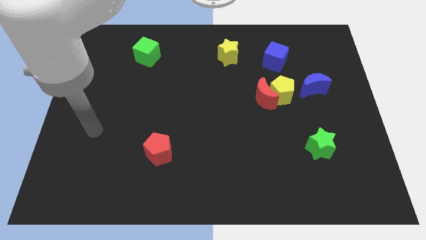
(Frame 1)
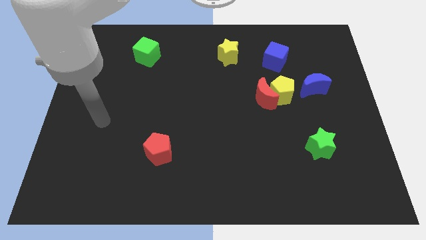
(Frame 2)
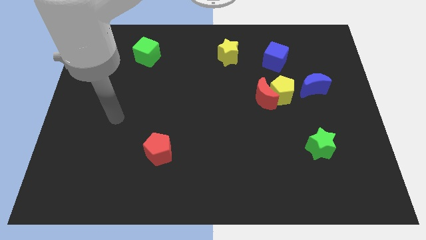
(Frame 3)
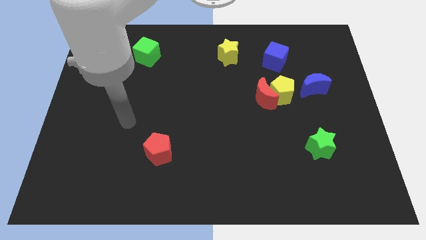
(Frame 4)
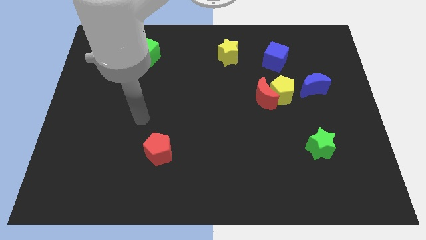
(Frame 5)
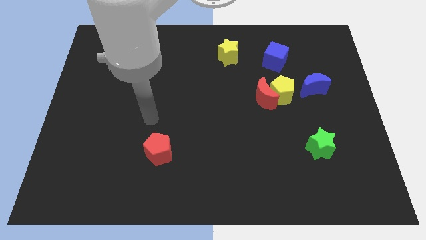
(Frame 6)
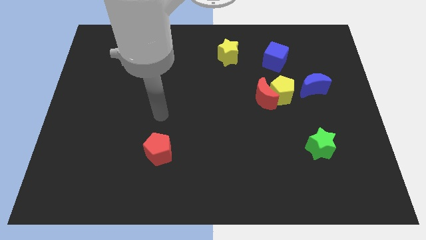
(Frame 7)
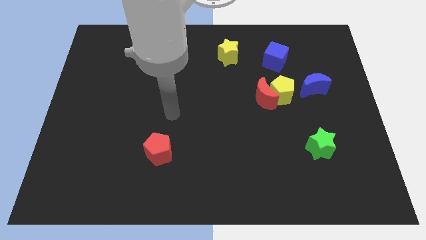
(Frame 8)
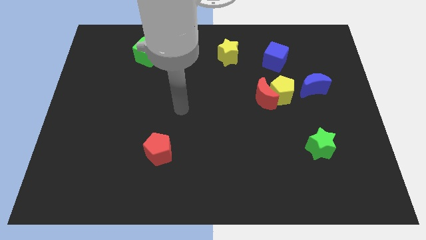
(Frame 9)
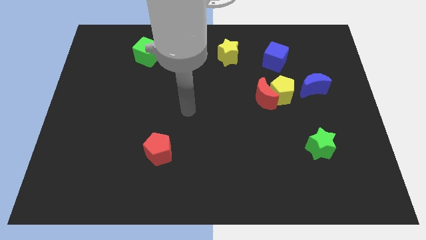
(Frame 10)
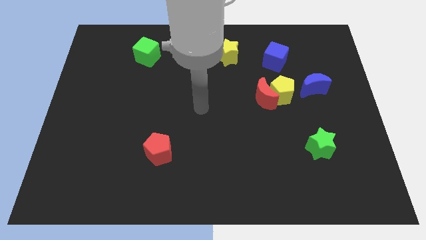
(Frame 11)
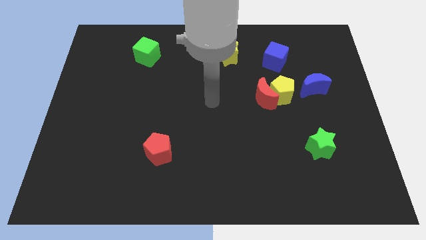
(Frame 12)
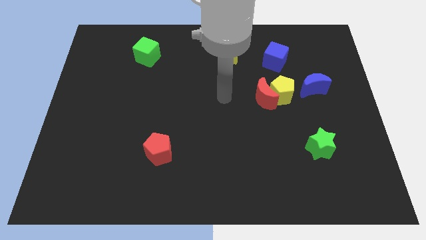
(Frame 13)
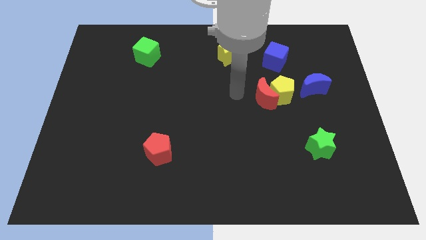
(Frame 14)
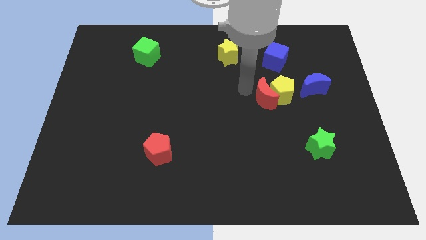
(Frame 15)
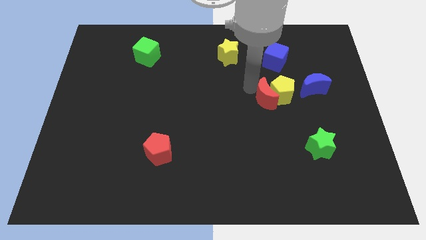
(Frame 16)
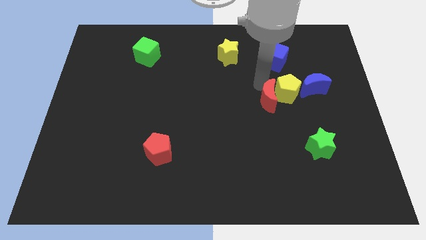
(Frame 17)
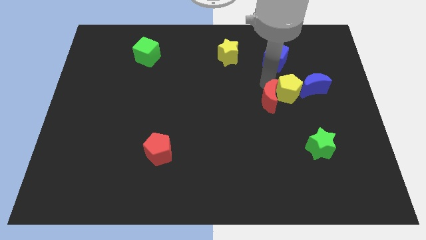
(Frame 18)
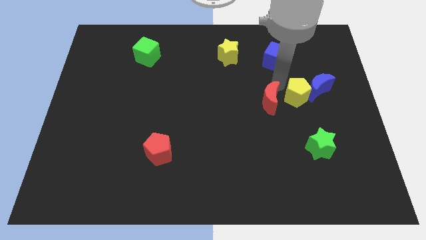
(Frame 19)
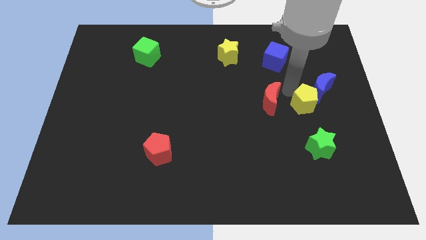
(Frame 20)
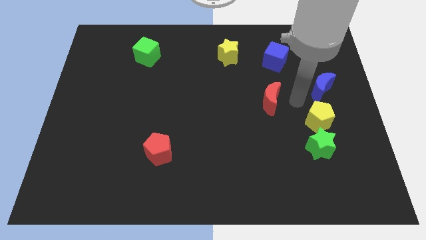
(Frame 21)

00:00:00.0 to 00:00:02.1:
move the red moon away from the yellow pentagon

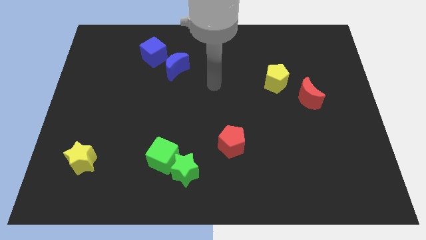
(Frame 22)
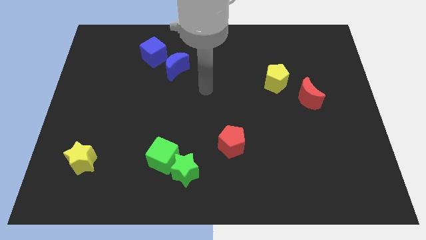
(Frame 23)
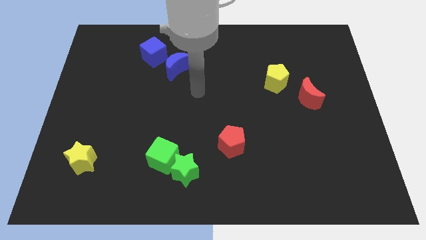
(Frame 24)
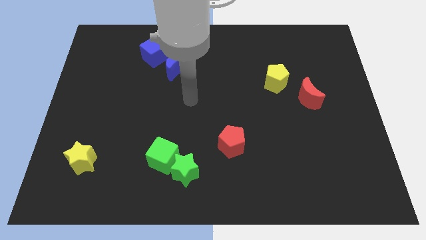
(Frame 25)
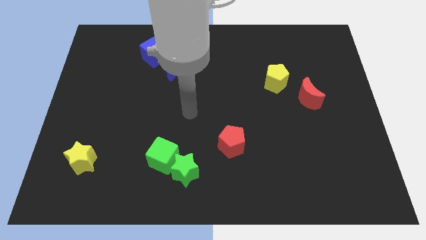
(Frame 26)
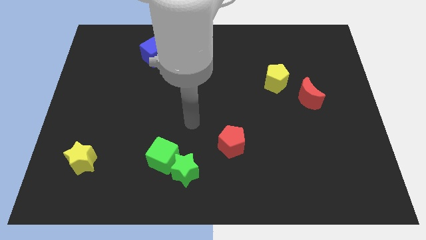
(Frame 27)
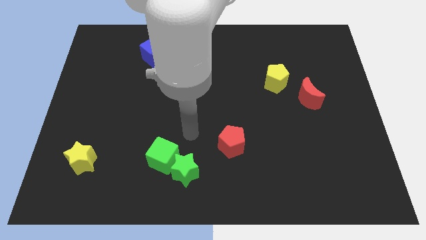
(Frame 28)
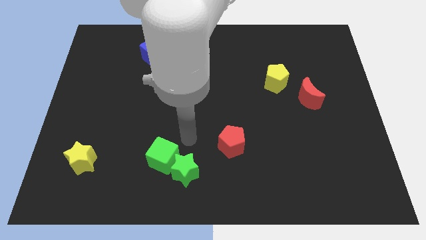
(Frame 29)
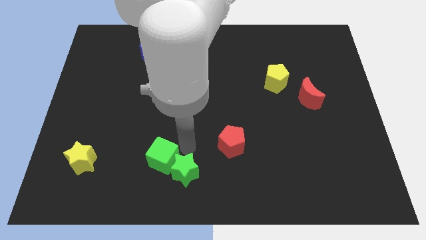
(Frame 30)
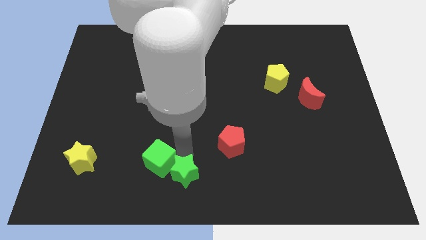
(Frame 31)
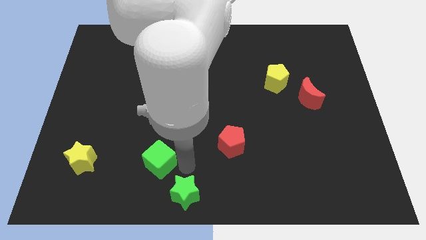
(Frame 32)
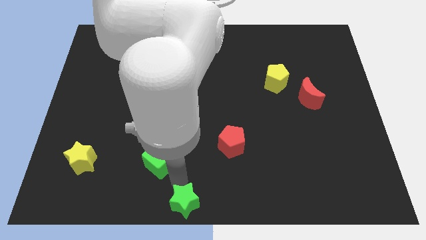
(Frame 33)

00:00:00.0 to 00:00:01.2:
pull the green cube apart from the green star

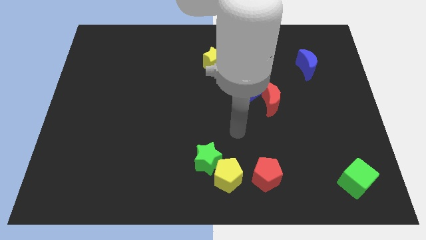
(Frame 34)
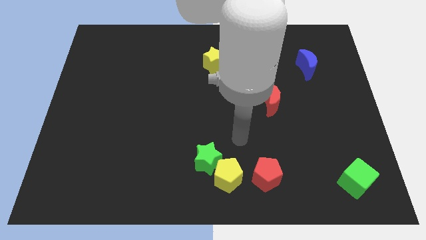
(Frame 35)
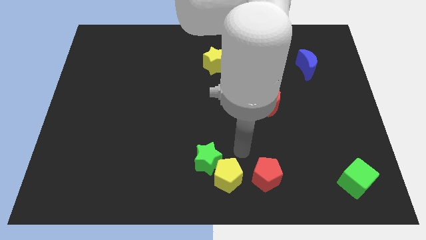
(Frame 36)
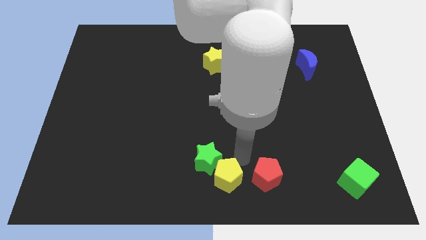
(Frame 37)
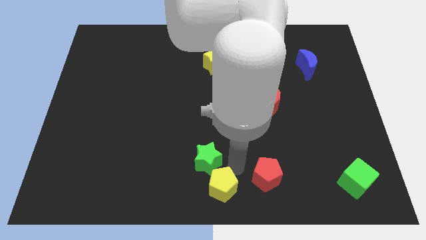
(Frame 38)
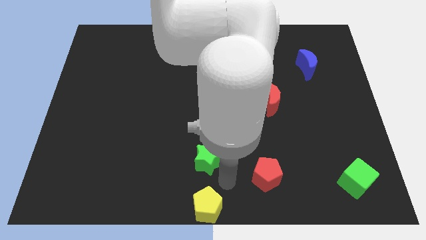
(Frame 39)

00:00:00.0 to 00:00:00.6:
pull the green star apart from the yellow pentagon

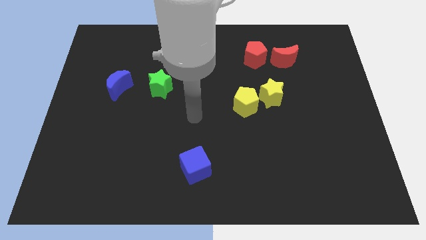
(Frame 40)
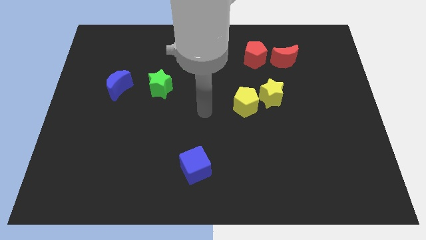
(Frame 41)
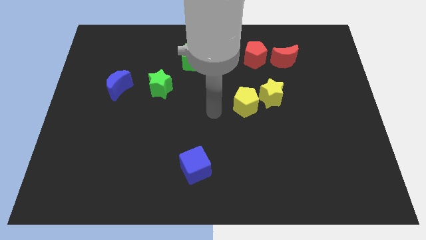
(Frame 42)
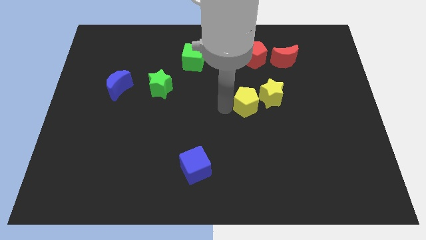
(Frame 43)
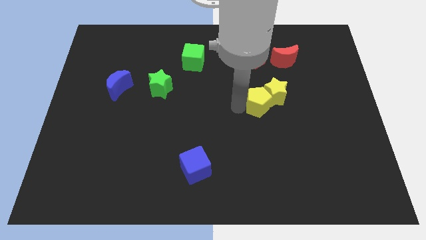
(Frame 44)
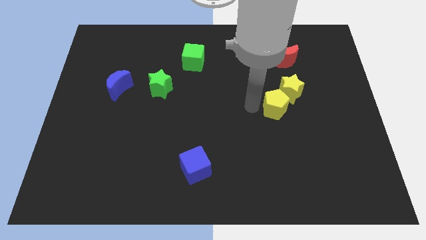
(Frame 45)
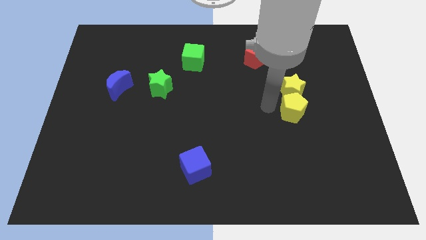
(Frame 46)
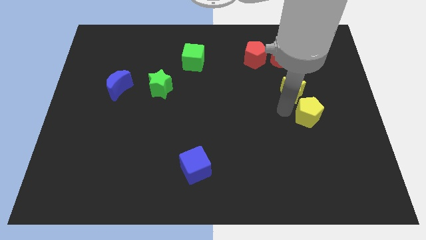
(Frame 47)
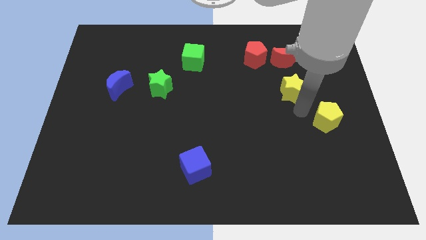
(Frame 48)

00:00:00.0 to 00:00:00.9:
separate the yellow star from the yellow pentagon

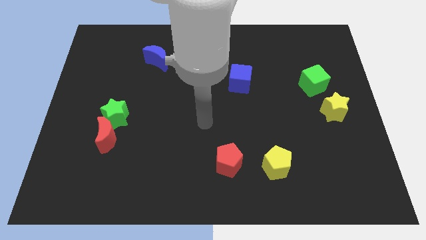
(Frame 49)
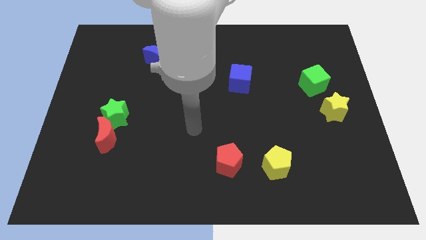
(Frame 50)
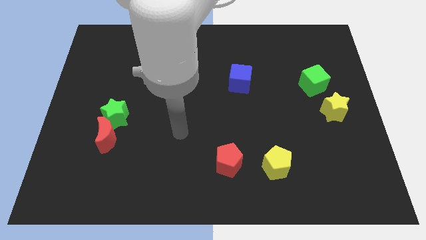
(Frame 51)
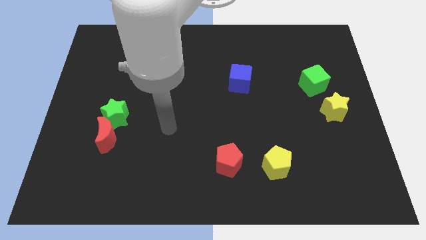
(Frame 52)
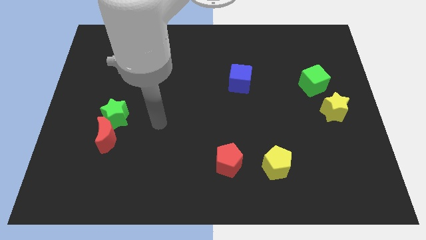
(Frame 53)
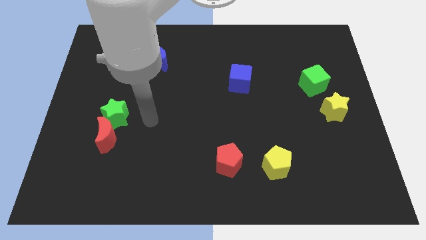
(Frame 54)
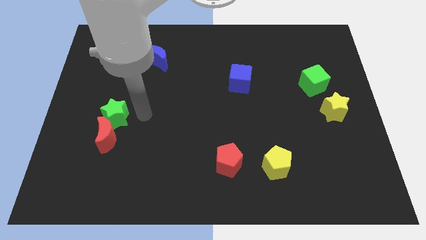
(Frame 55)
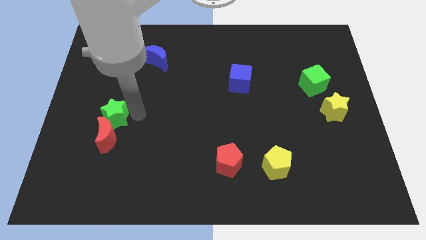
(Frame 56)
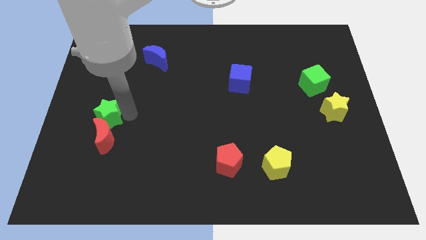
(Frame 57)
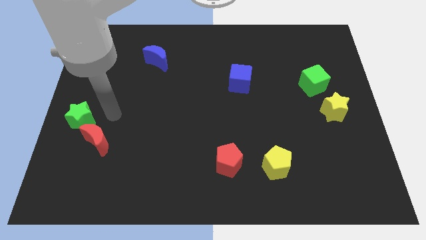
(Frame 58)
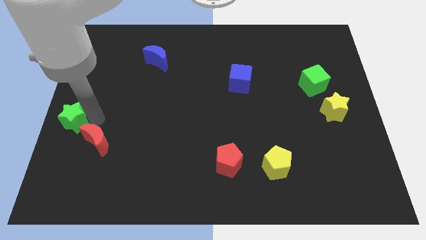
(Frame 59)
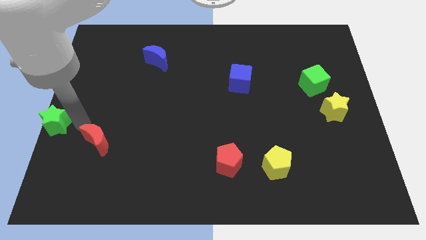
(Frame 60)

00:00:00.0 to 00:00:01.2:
pull the red moon apart from the green star

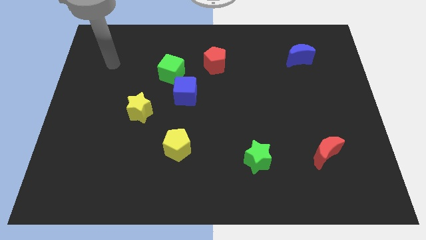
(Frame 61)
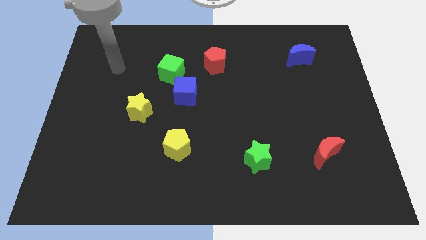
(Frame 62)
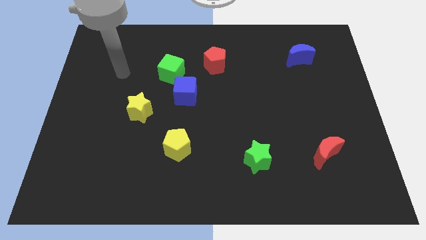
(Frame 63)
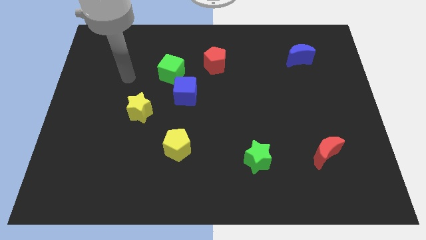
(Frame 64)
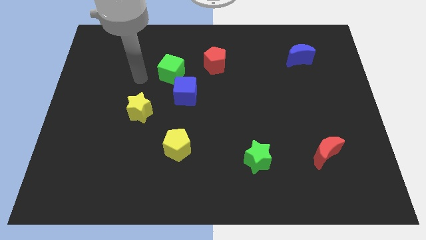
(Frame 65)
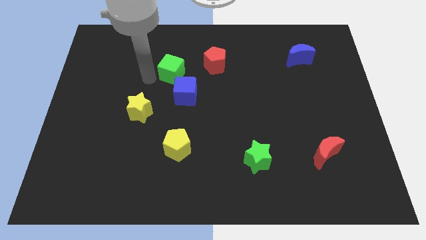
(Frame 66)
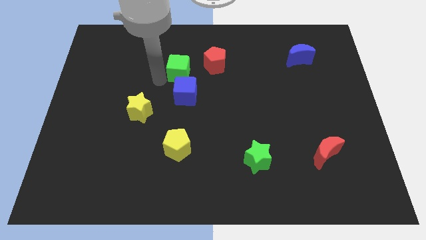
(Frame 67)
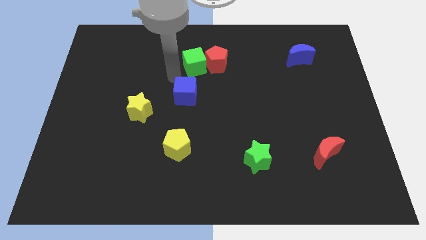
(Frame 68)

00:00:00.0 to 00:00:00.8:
pull the blue cube apart from the green cube

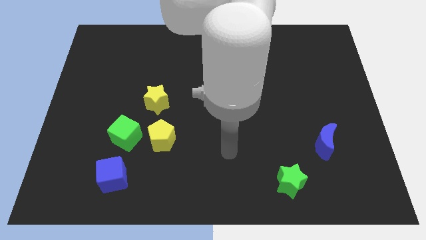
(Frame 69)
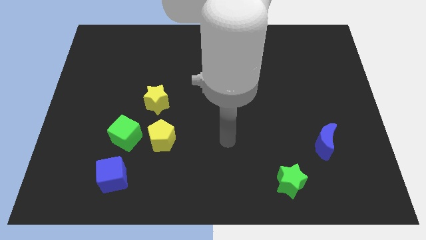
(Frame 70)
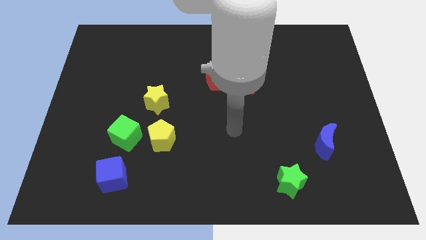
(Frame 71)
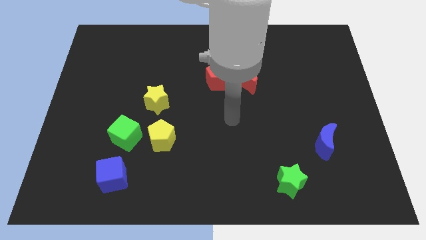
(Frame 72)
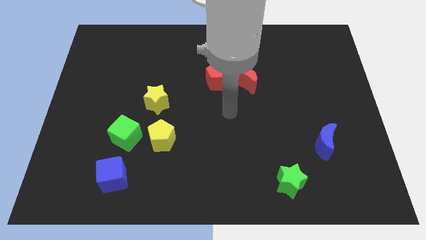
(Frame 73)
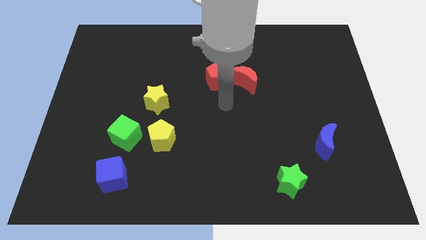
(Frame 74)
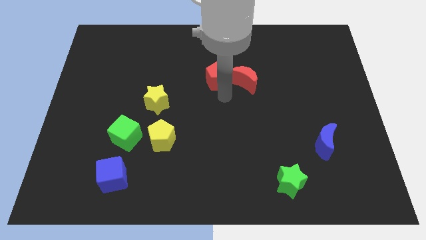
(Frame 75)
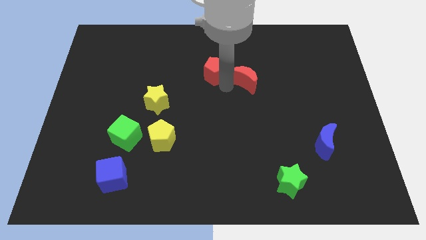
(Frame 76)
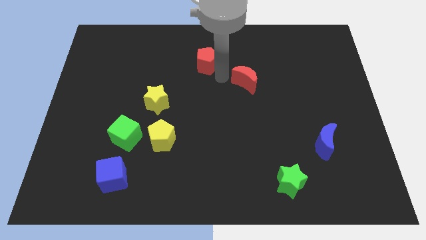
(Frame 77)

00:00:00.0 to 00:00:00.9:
separate the red moon from the red pentagon

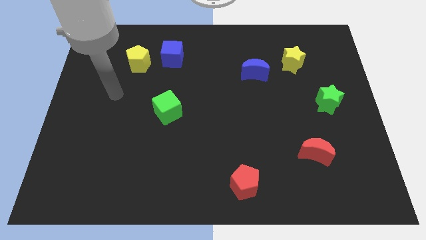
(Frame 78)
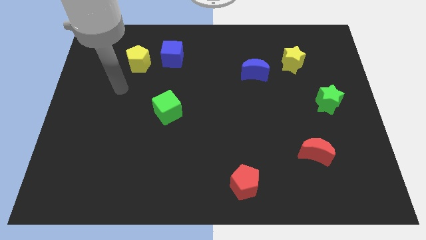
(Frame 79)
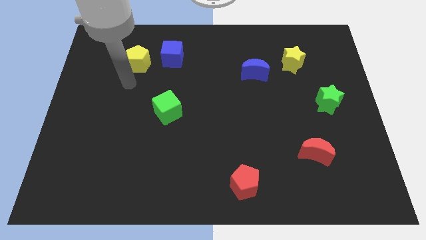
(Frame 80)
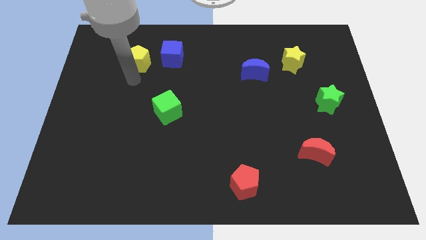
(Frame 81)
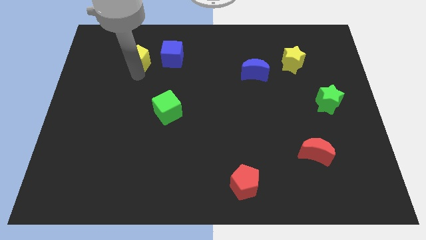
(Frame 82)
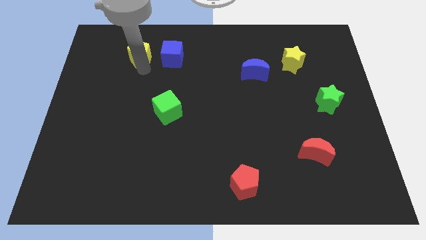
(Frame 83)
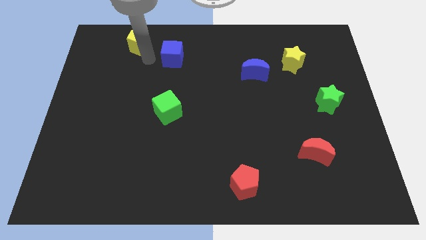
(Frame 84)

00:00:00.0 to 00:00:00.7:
separate the blue cube from the yellow pentagon

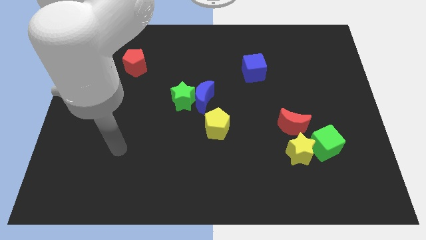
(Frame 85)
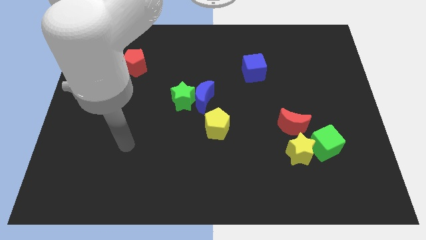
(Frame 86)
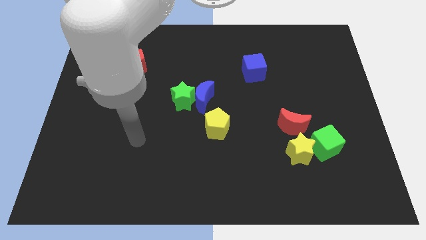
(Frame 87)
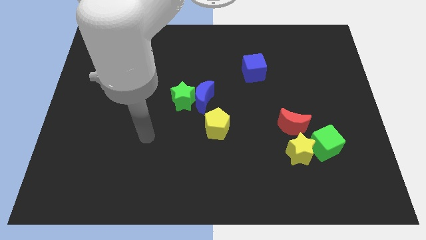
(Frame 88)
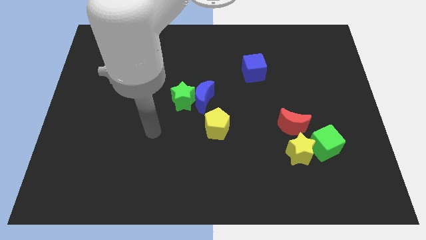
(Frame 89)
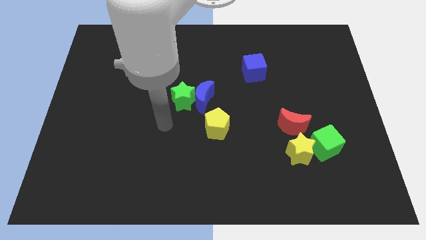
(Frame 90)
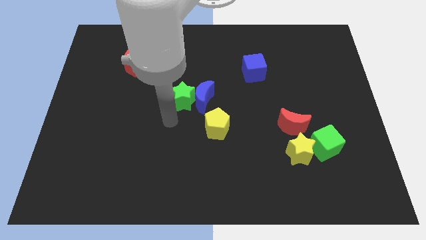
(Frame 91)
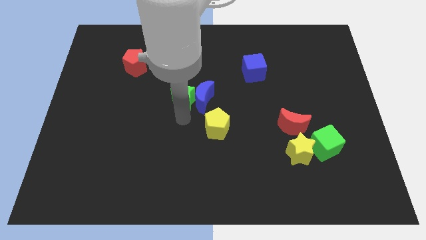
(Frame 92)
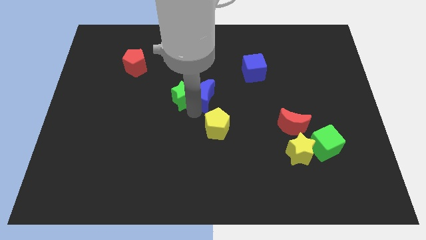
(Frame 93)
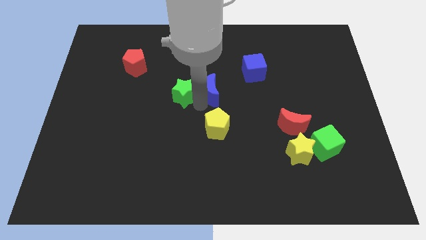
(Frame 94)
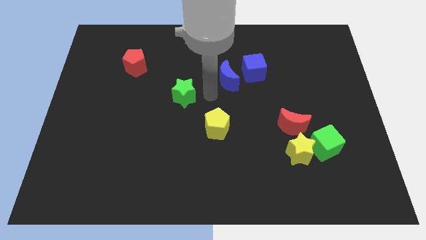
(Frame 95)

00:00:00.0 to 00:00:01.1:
separate the green star from the blue moon
